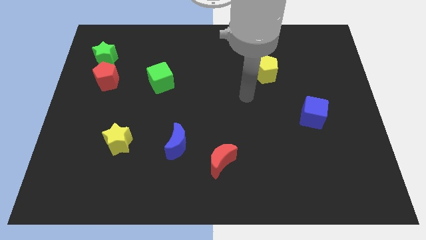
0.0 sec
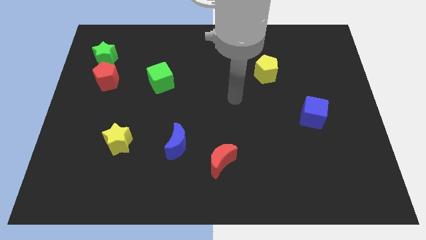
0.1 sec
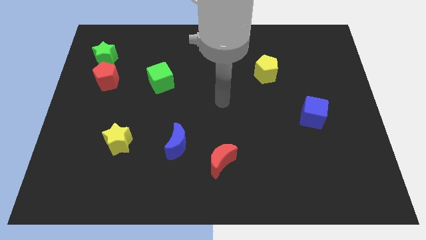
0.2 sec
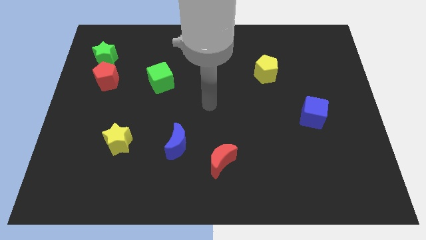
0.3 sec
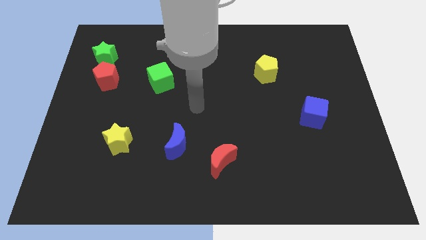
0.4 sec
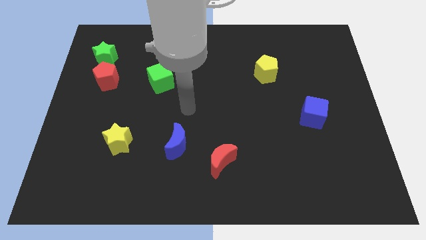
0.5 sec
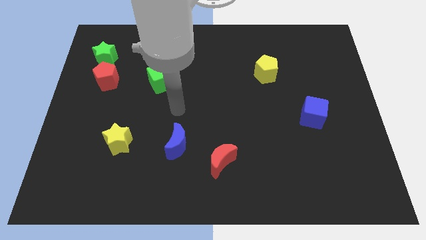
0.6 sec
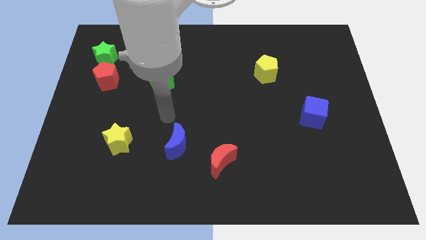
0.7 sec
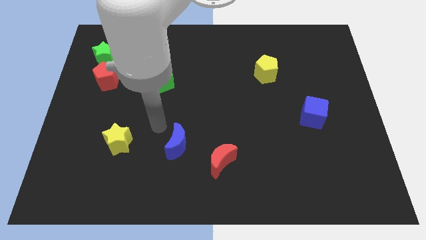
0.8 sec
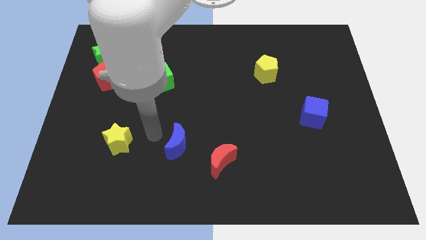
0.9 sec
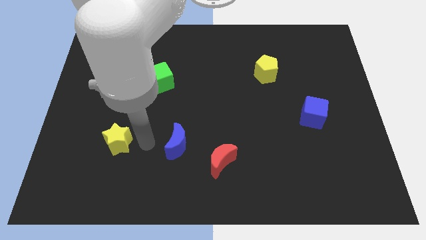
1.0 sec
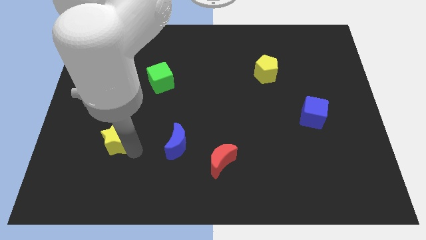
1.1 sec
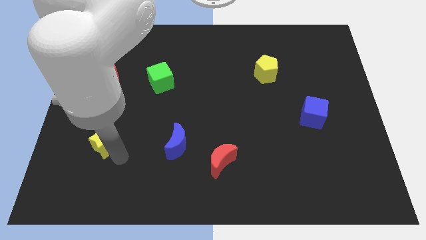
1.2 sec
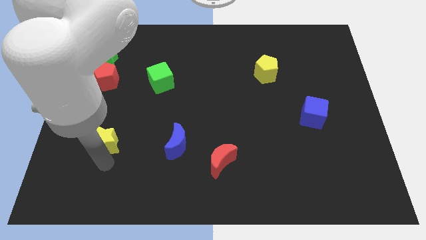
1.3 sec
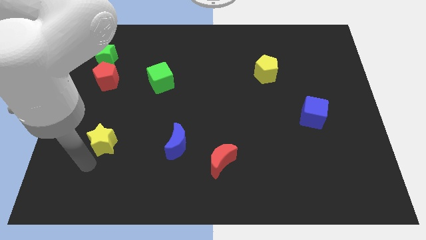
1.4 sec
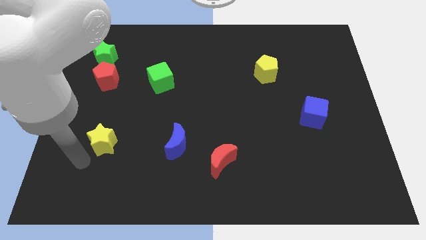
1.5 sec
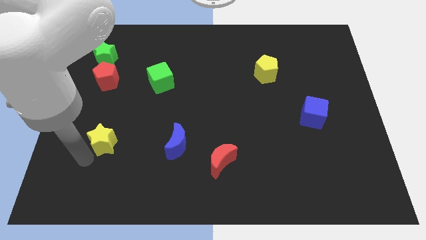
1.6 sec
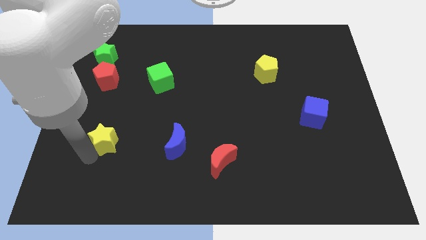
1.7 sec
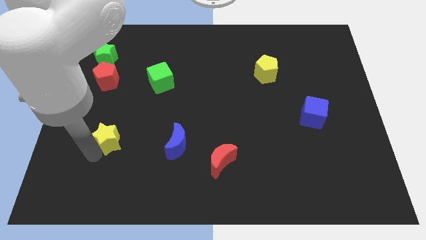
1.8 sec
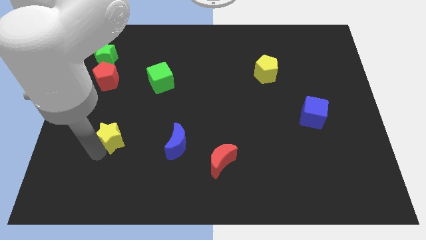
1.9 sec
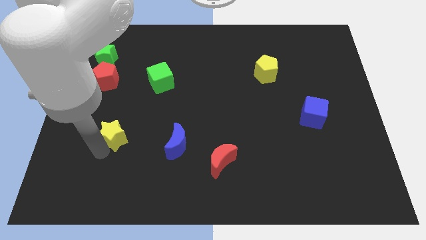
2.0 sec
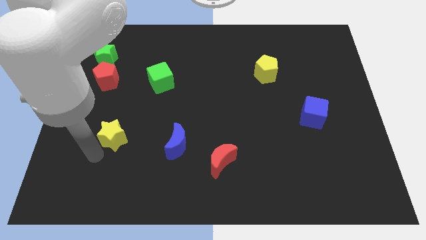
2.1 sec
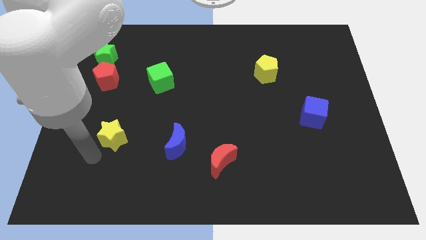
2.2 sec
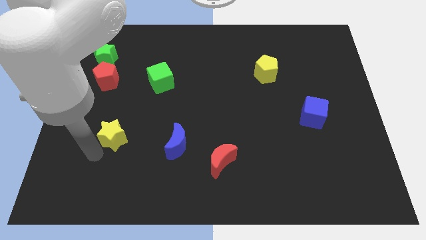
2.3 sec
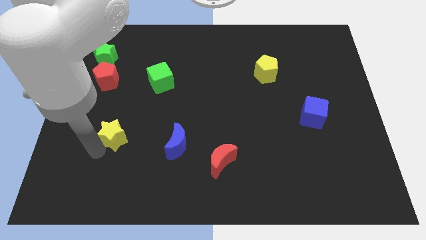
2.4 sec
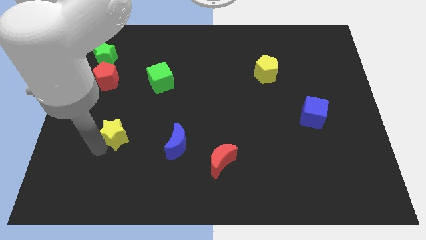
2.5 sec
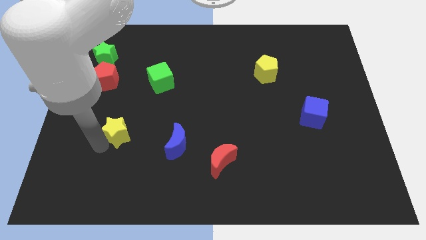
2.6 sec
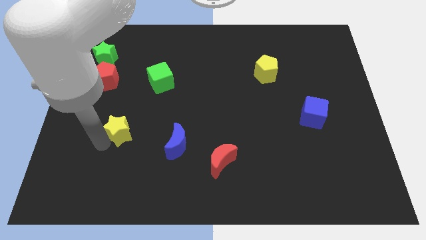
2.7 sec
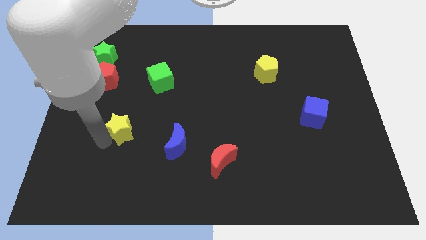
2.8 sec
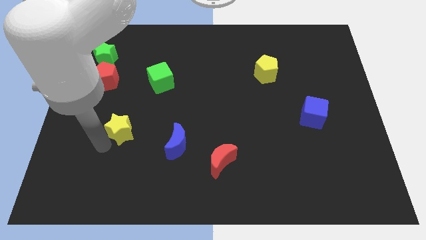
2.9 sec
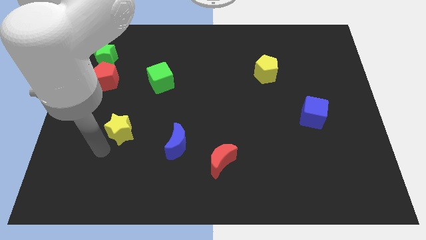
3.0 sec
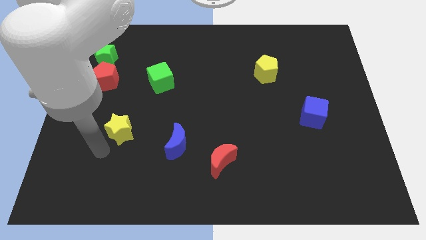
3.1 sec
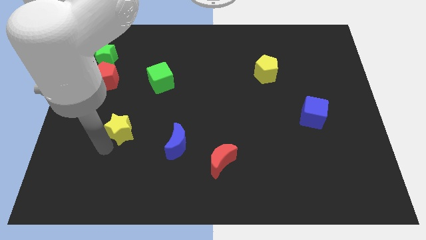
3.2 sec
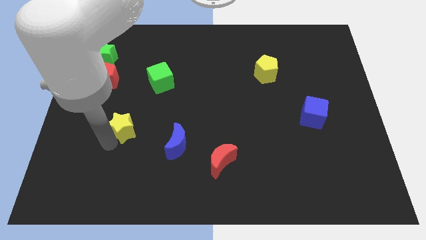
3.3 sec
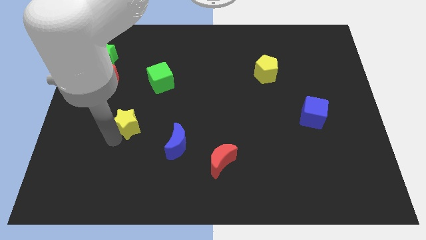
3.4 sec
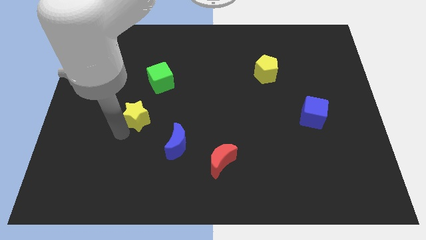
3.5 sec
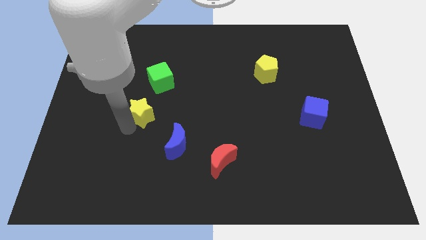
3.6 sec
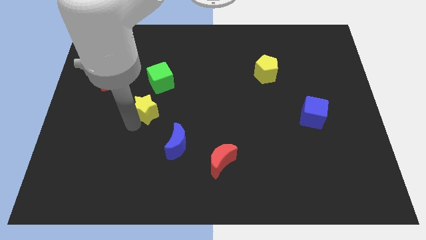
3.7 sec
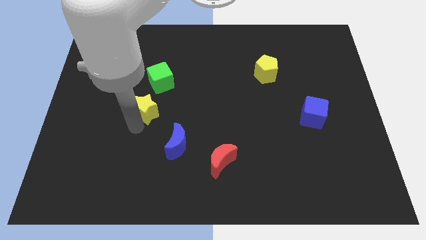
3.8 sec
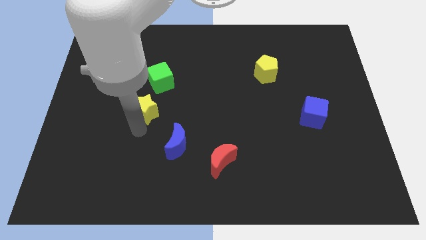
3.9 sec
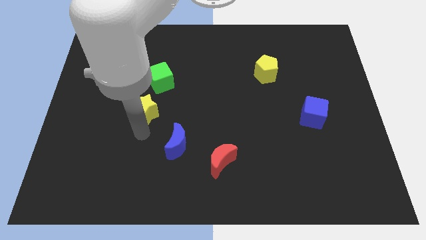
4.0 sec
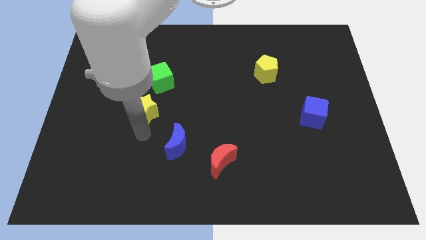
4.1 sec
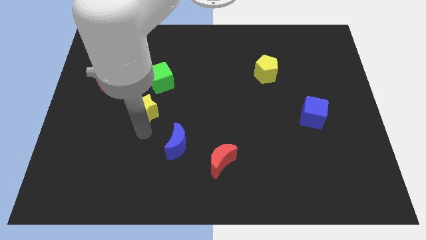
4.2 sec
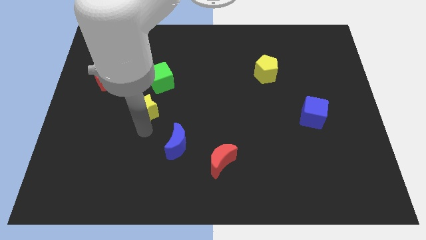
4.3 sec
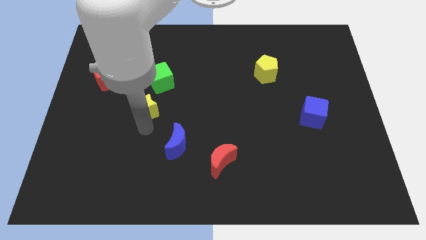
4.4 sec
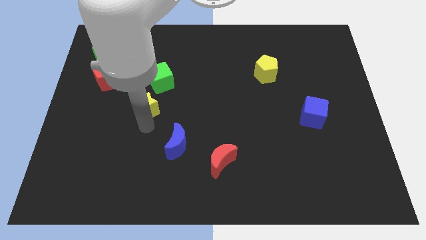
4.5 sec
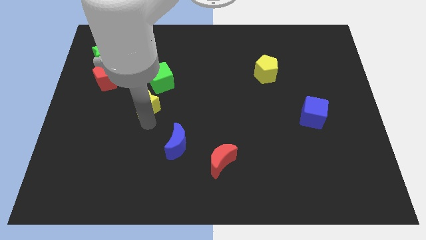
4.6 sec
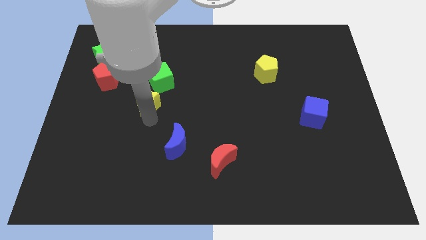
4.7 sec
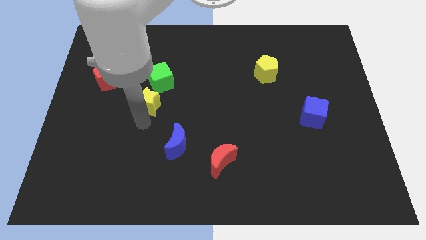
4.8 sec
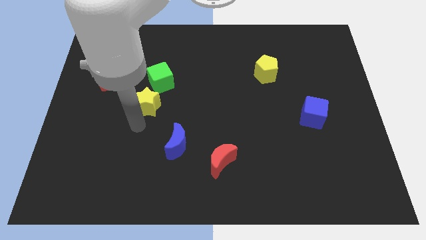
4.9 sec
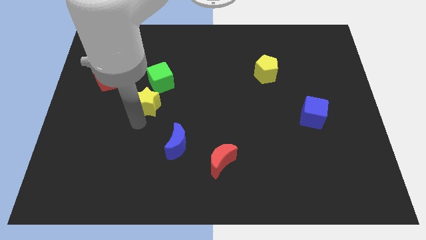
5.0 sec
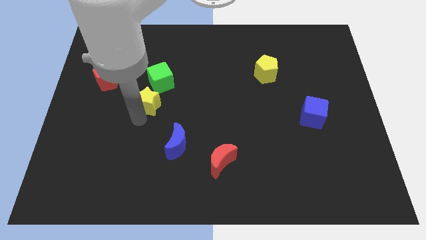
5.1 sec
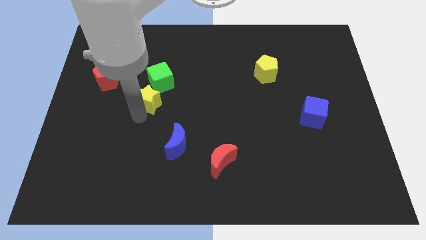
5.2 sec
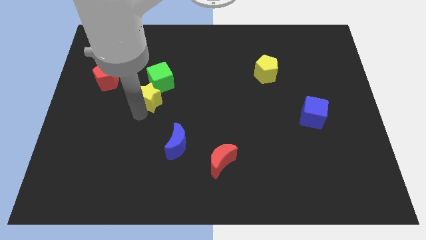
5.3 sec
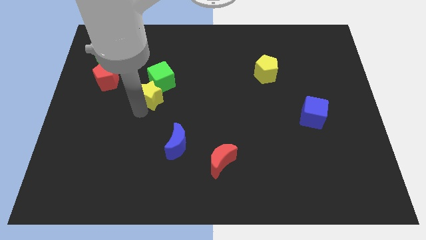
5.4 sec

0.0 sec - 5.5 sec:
slide the yellow star close to the green cube

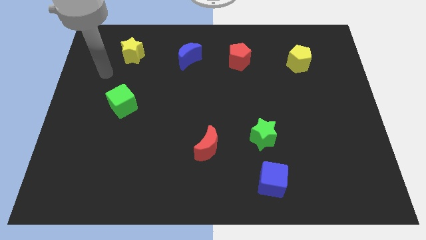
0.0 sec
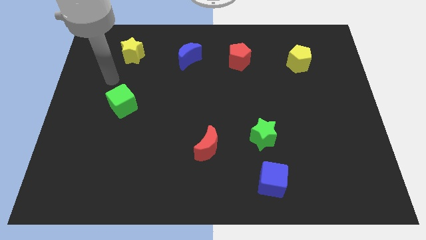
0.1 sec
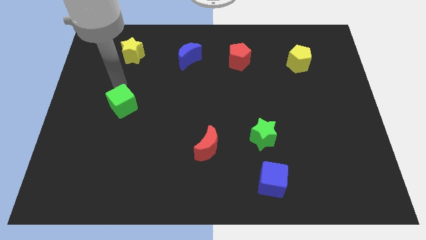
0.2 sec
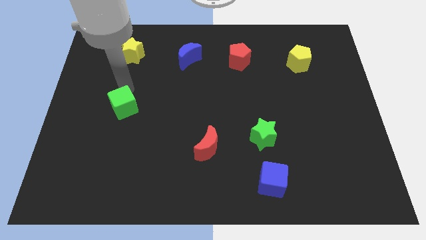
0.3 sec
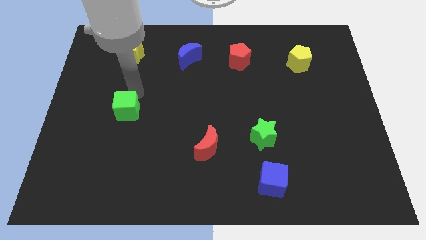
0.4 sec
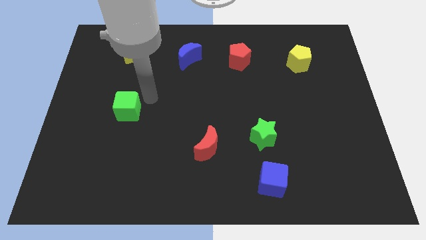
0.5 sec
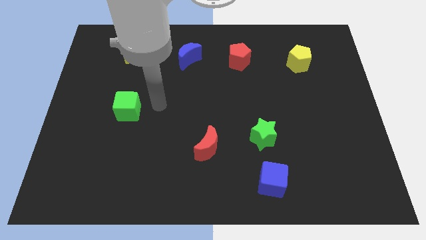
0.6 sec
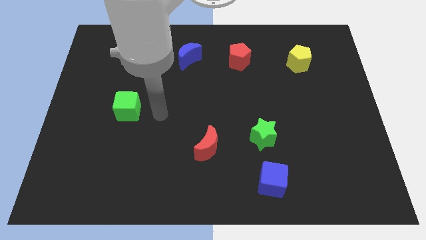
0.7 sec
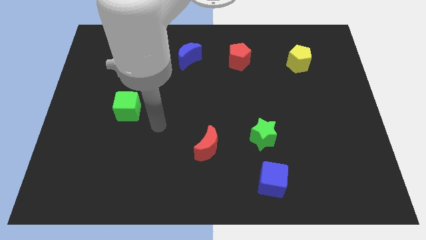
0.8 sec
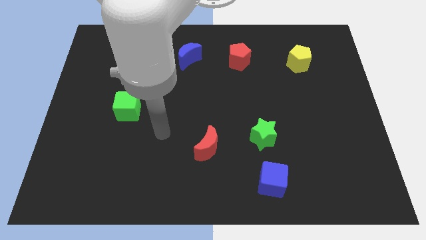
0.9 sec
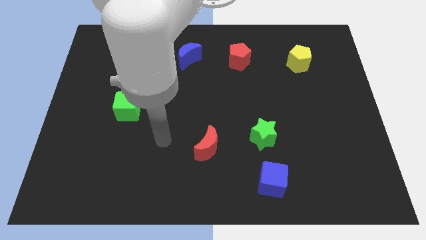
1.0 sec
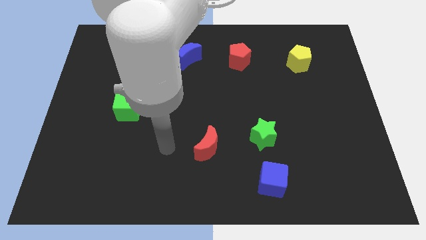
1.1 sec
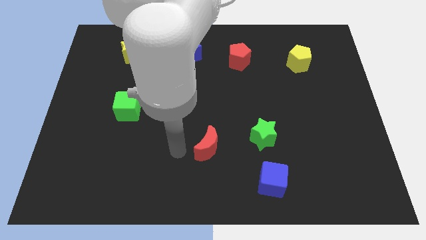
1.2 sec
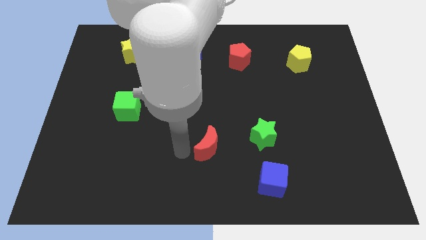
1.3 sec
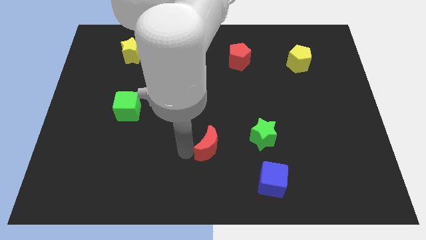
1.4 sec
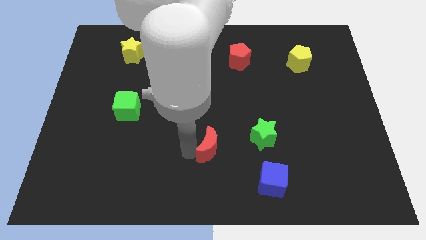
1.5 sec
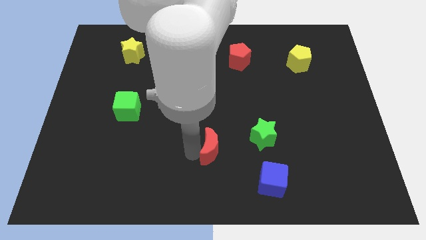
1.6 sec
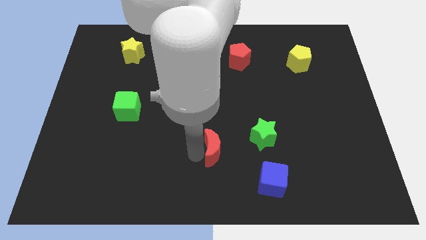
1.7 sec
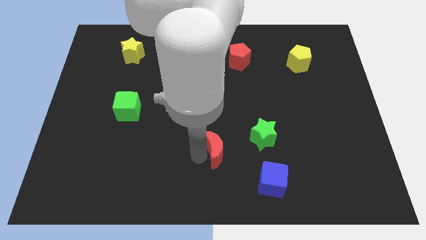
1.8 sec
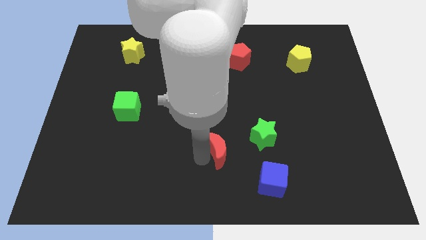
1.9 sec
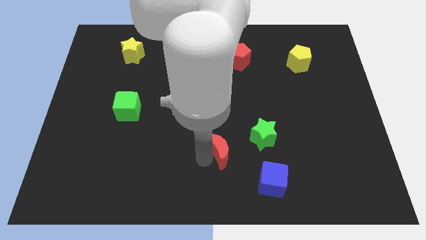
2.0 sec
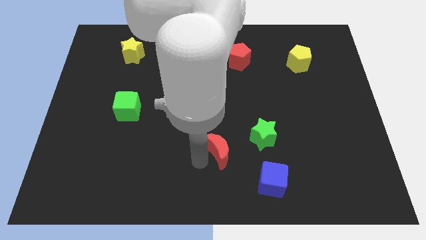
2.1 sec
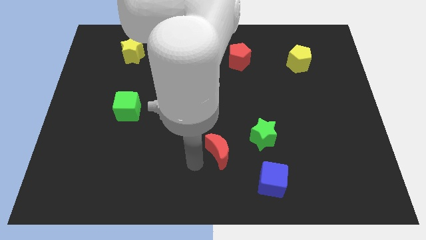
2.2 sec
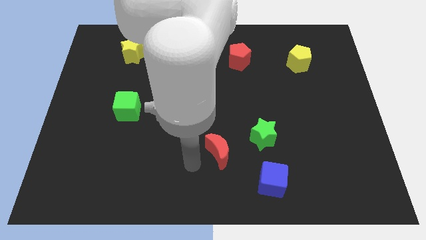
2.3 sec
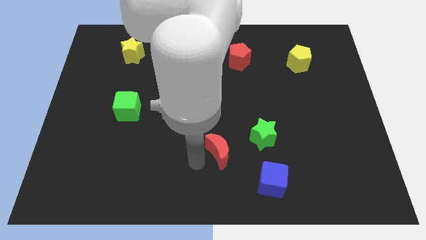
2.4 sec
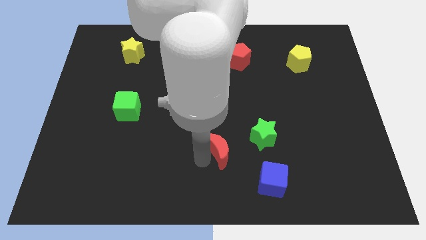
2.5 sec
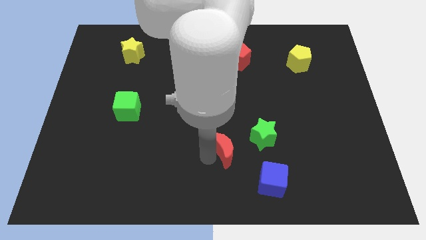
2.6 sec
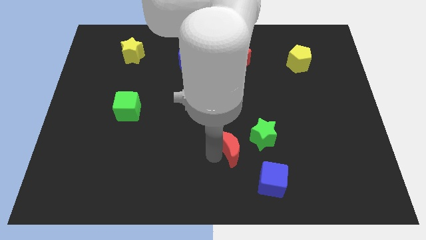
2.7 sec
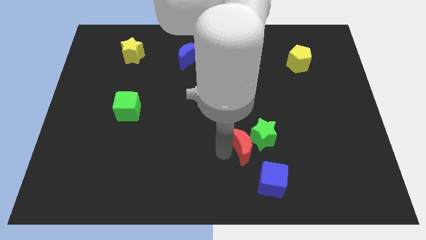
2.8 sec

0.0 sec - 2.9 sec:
put the red moon next to the green star
